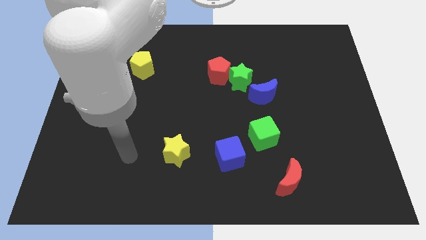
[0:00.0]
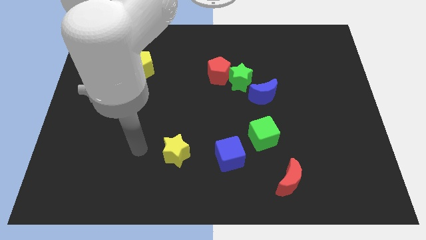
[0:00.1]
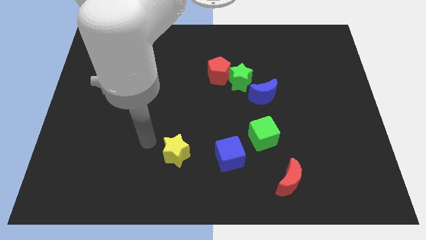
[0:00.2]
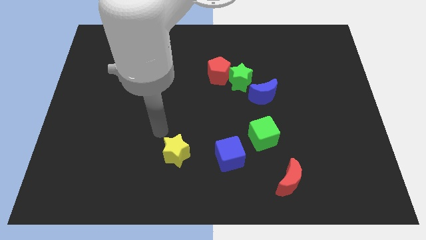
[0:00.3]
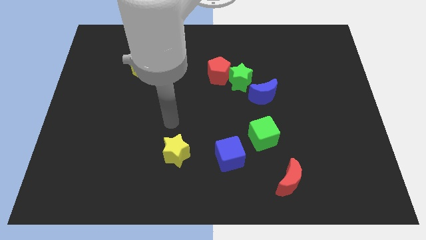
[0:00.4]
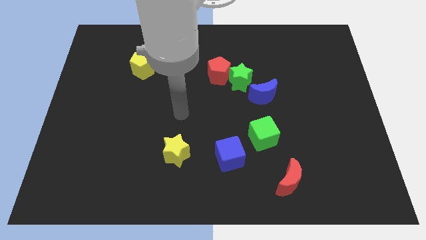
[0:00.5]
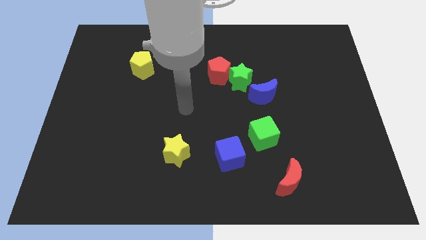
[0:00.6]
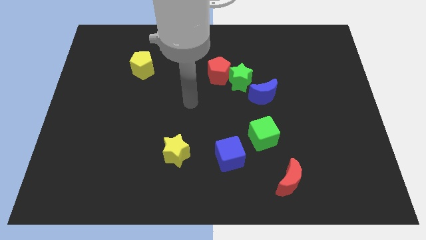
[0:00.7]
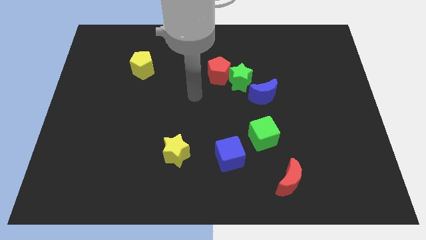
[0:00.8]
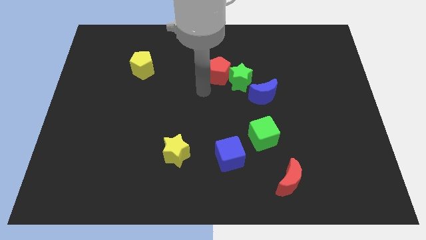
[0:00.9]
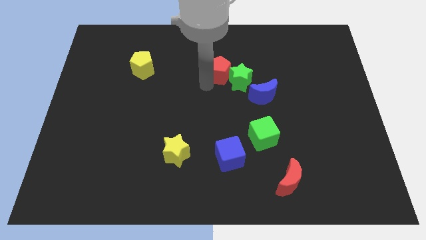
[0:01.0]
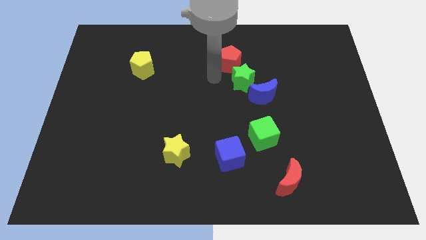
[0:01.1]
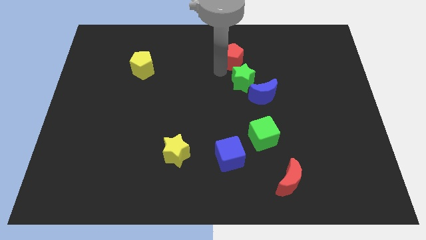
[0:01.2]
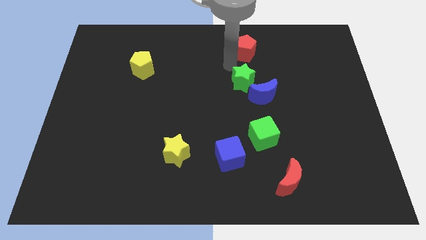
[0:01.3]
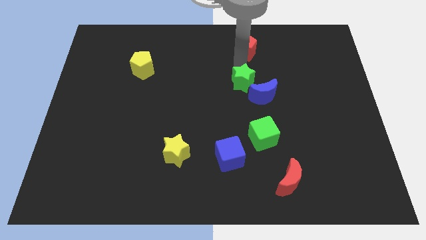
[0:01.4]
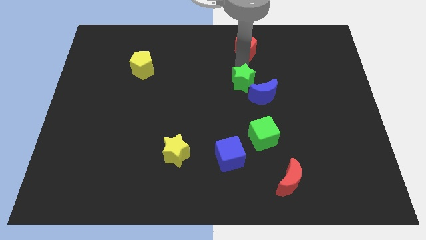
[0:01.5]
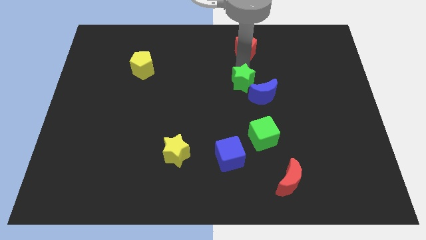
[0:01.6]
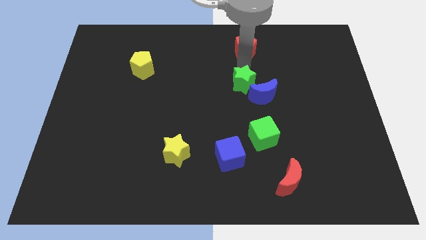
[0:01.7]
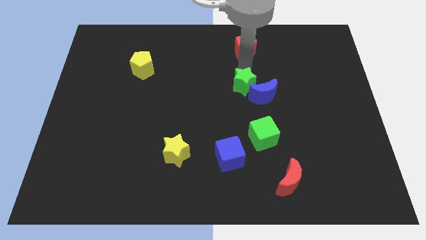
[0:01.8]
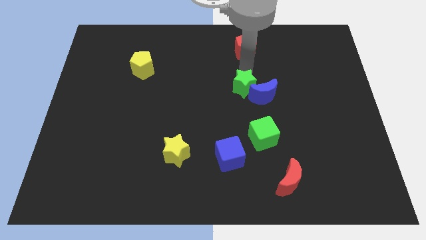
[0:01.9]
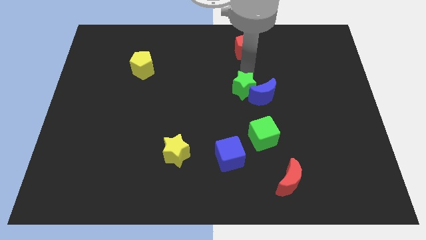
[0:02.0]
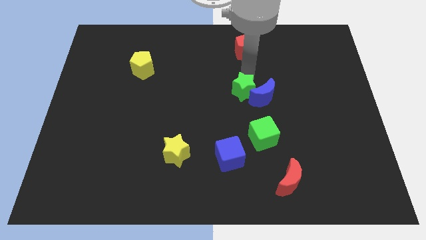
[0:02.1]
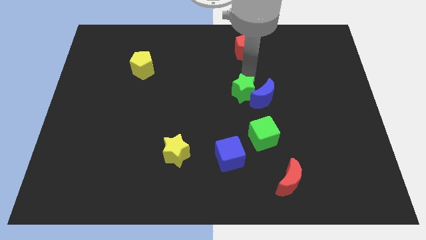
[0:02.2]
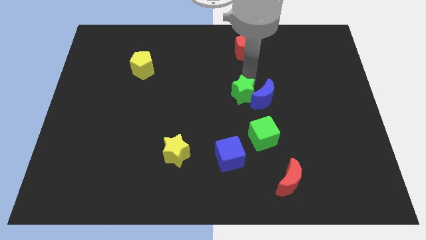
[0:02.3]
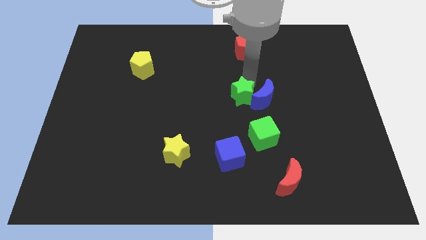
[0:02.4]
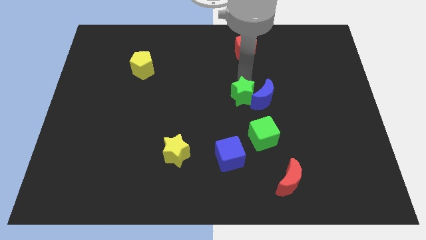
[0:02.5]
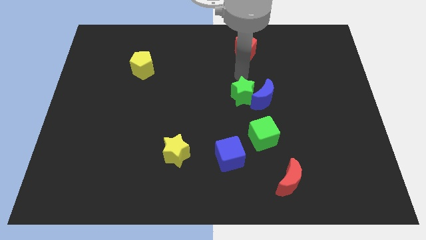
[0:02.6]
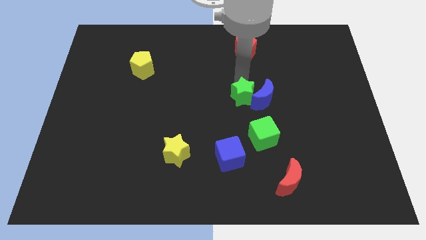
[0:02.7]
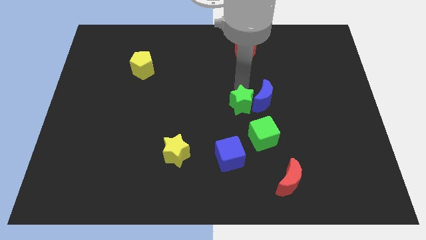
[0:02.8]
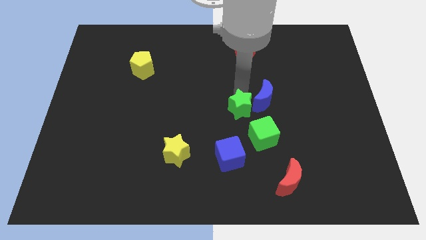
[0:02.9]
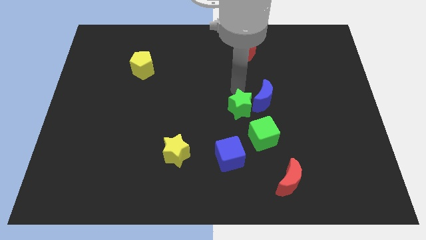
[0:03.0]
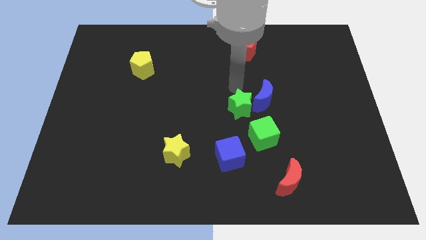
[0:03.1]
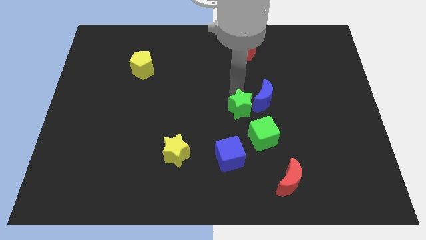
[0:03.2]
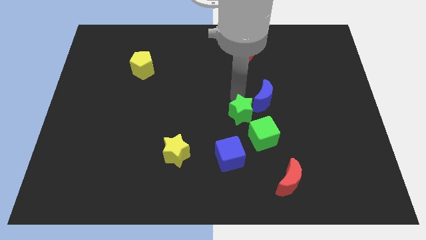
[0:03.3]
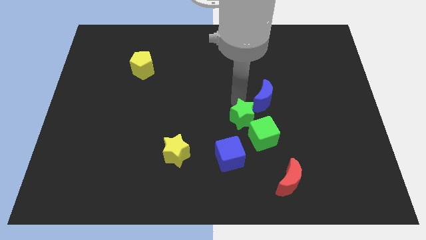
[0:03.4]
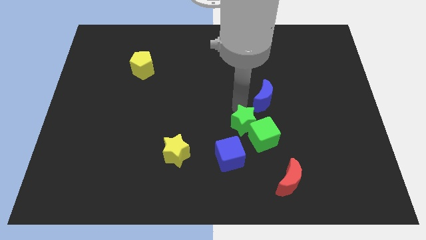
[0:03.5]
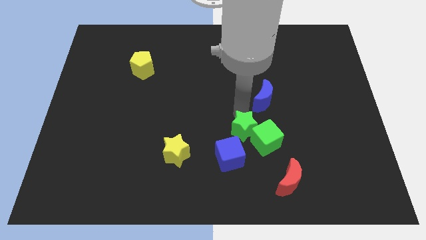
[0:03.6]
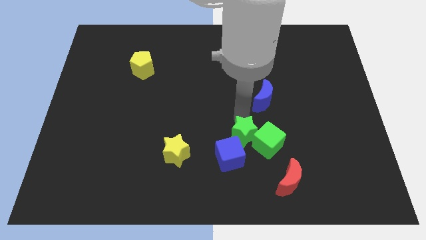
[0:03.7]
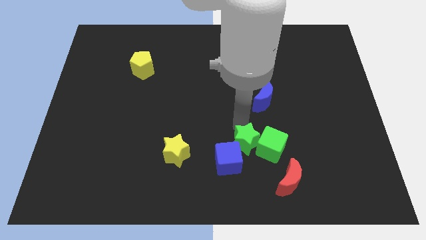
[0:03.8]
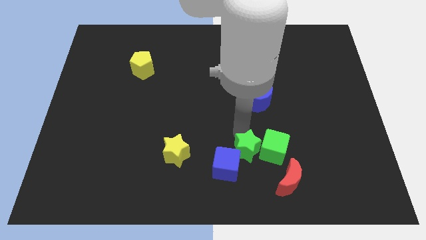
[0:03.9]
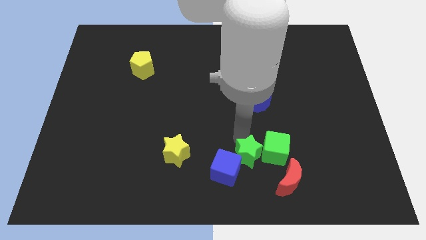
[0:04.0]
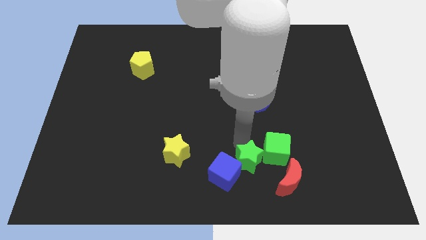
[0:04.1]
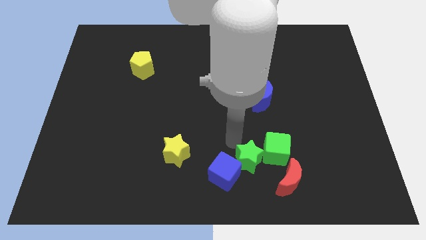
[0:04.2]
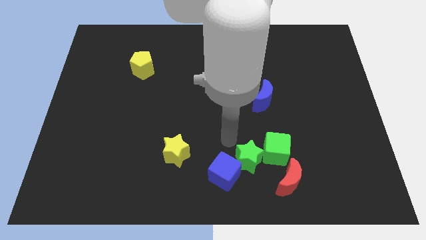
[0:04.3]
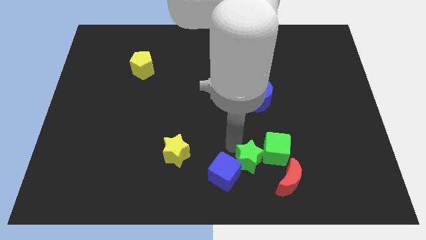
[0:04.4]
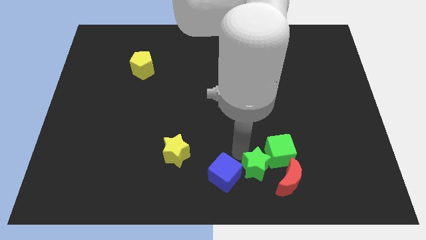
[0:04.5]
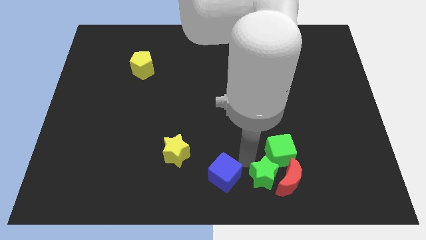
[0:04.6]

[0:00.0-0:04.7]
put the green star below the green cube

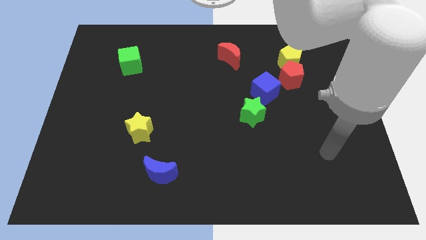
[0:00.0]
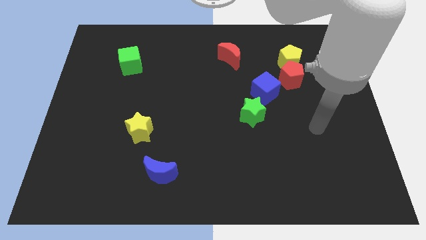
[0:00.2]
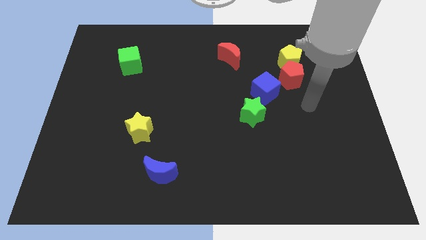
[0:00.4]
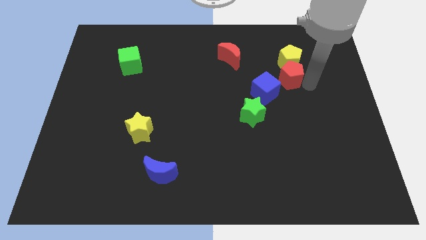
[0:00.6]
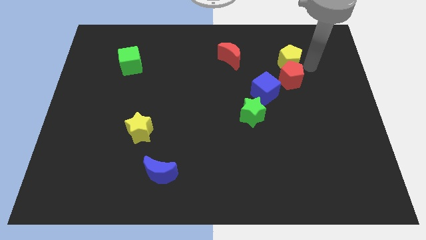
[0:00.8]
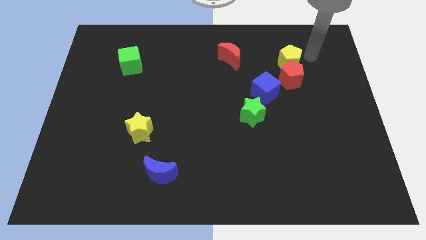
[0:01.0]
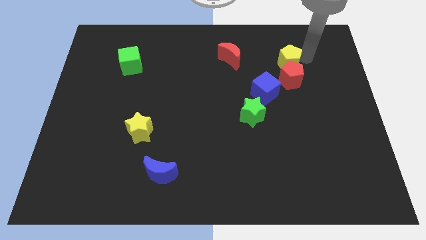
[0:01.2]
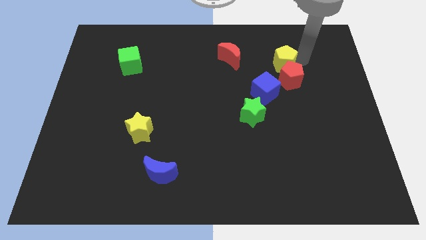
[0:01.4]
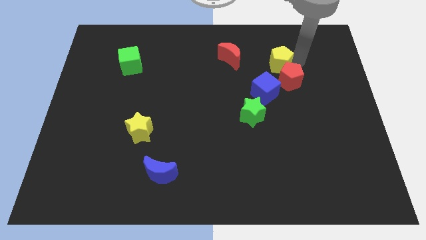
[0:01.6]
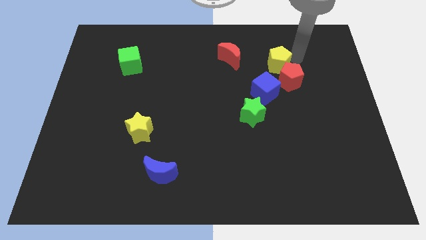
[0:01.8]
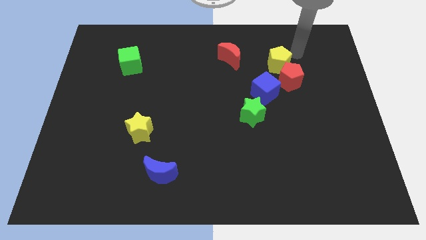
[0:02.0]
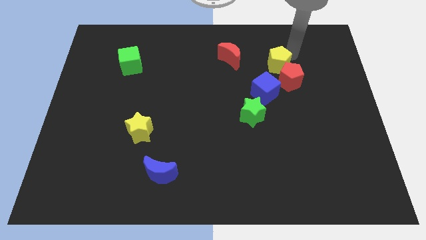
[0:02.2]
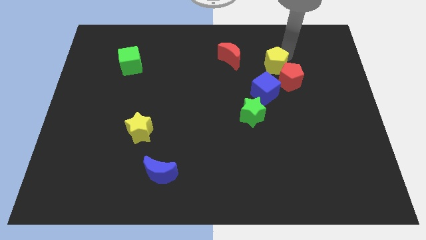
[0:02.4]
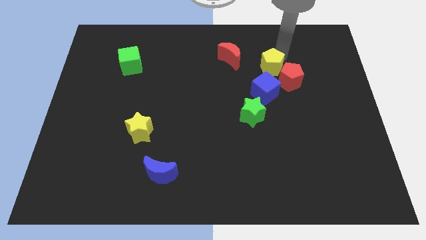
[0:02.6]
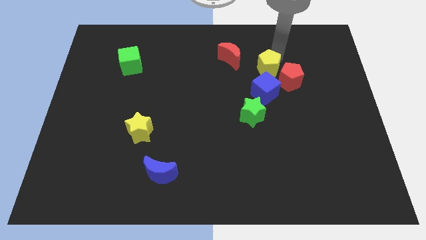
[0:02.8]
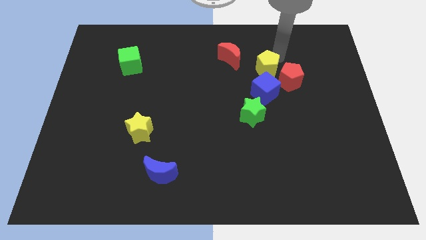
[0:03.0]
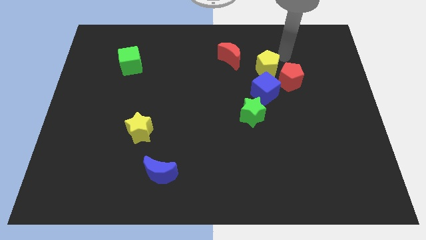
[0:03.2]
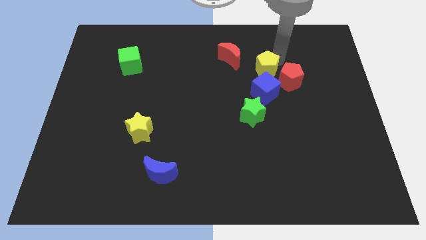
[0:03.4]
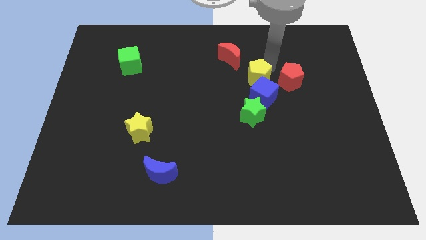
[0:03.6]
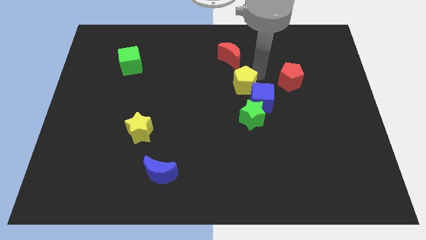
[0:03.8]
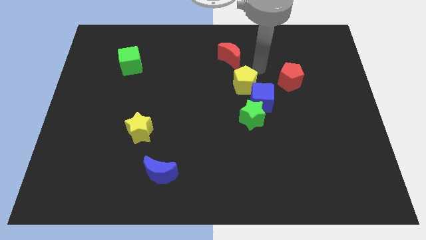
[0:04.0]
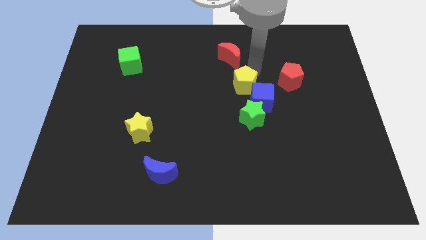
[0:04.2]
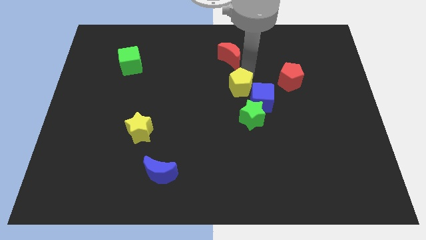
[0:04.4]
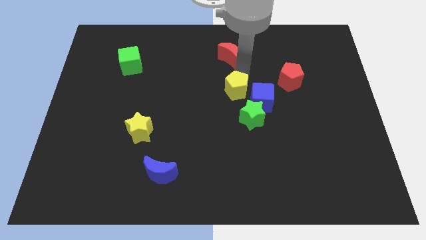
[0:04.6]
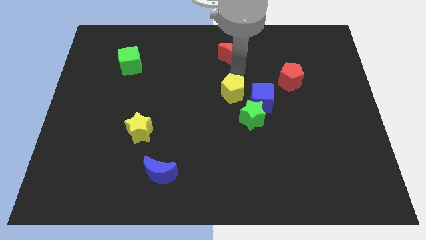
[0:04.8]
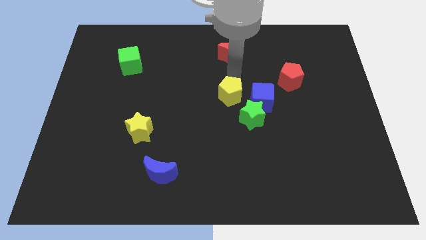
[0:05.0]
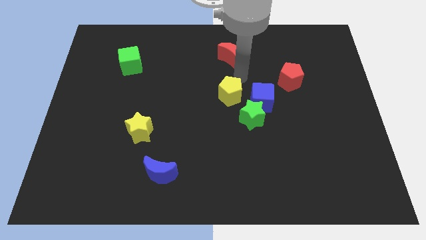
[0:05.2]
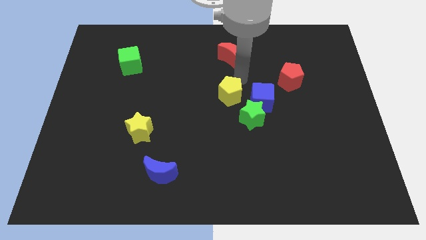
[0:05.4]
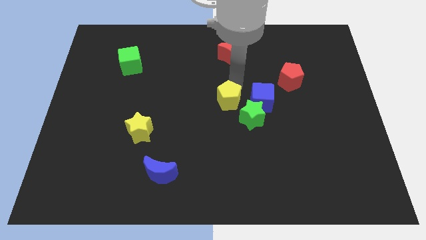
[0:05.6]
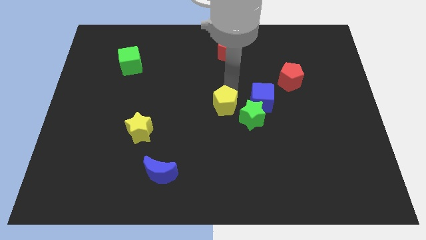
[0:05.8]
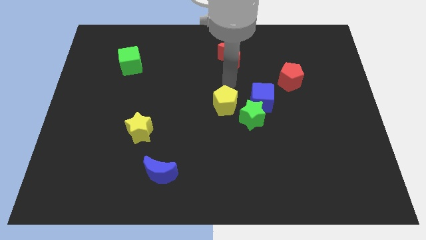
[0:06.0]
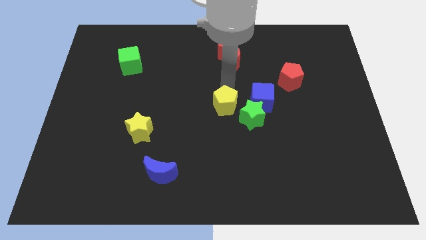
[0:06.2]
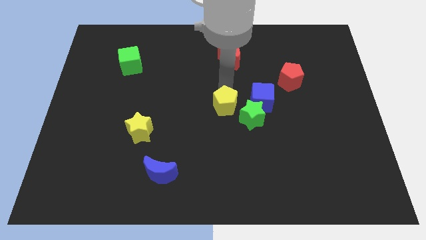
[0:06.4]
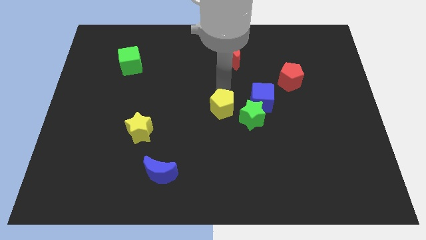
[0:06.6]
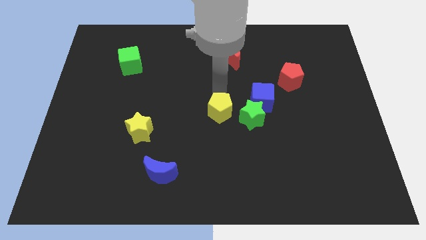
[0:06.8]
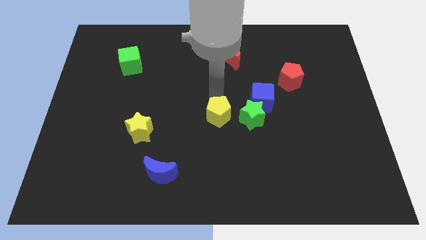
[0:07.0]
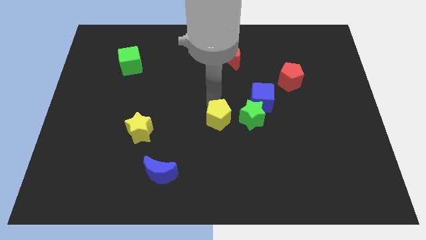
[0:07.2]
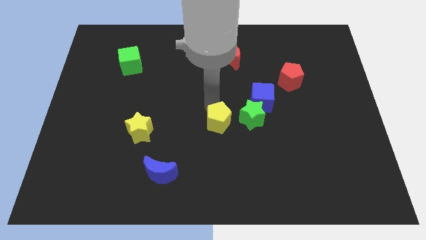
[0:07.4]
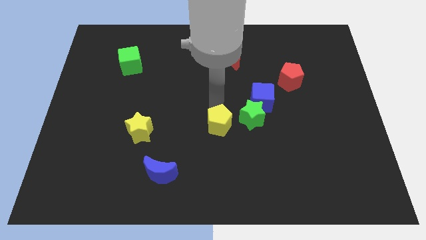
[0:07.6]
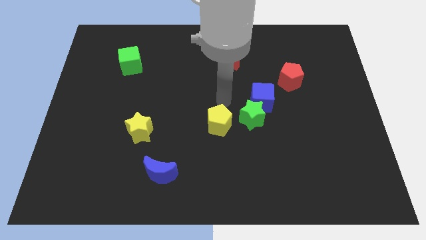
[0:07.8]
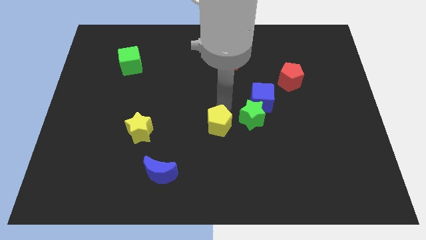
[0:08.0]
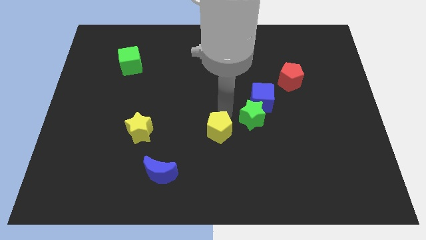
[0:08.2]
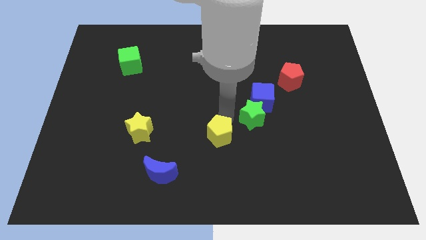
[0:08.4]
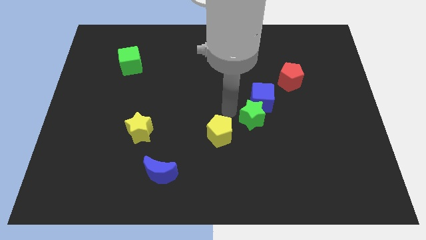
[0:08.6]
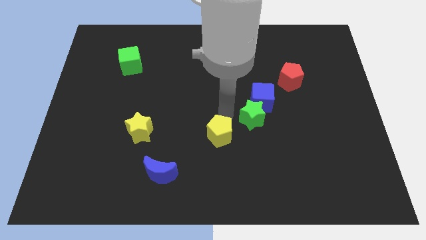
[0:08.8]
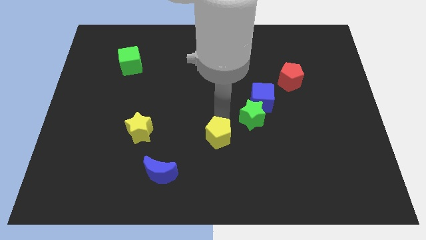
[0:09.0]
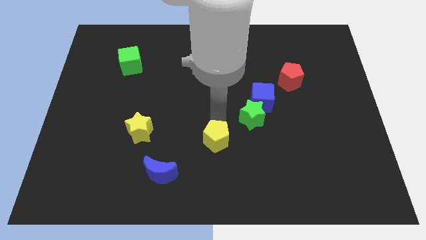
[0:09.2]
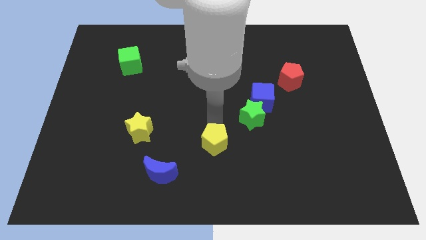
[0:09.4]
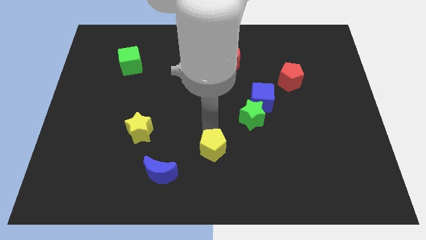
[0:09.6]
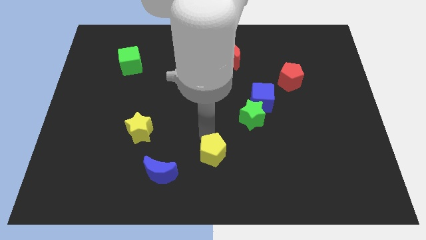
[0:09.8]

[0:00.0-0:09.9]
push the yellow pentagon to the right side of the blue moon
